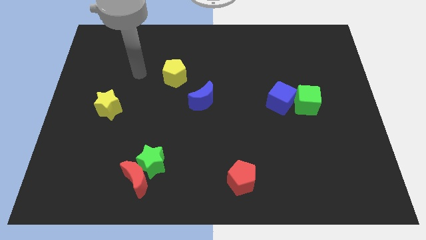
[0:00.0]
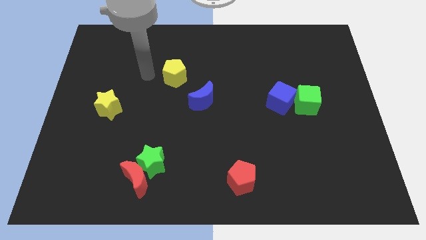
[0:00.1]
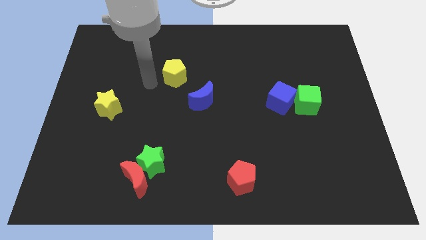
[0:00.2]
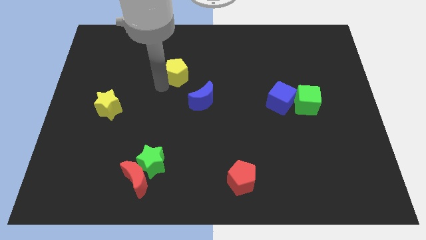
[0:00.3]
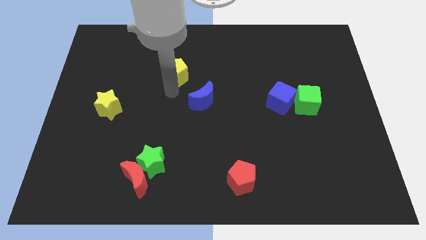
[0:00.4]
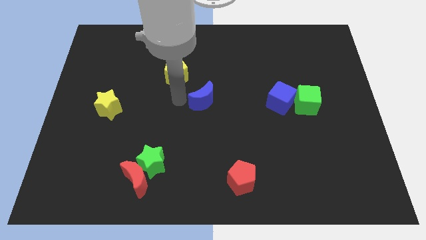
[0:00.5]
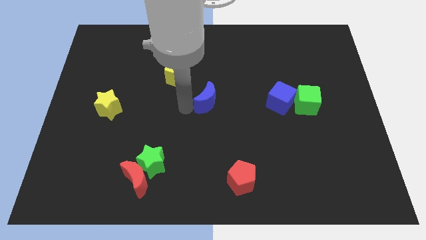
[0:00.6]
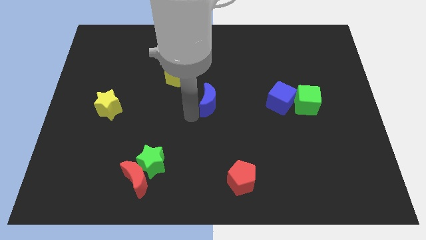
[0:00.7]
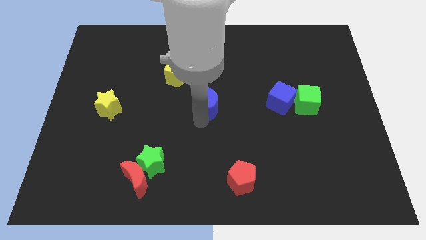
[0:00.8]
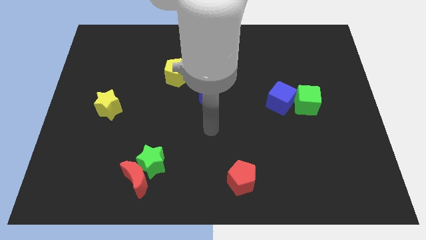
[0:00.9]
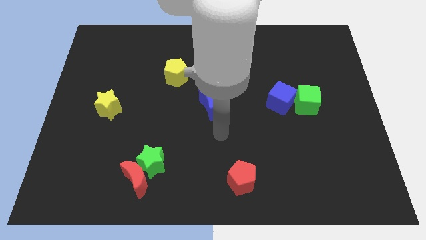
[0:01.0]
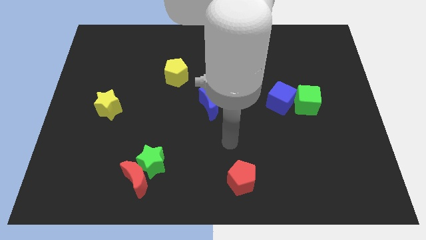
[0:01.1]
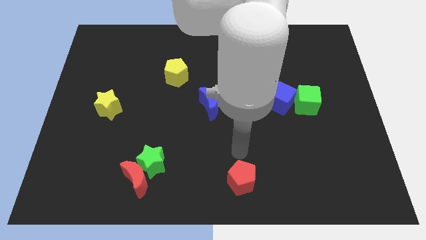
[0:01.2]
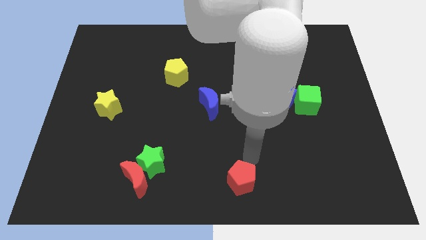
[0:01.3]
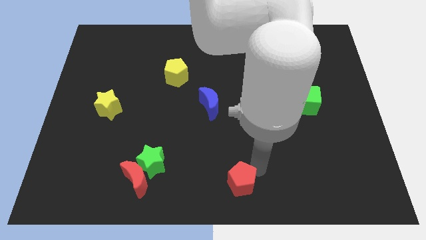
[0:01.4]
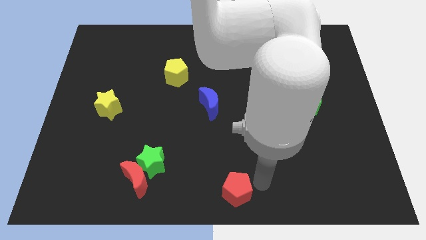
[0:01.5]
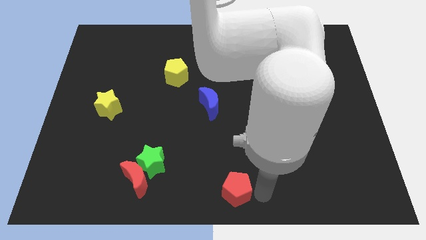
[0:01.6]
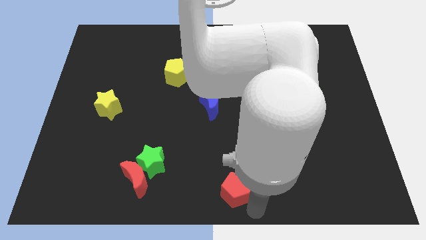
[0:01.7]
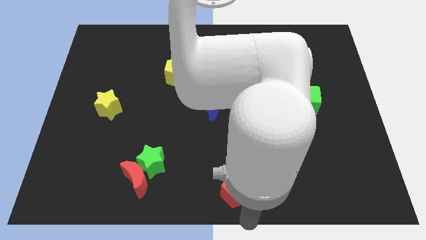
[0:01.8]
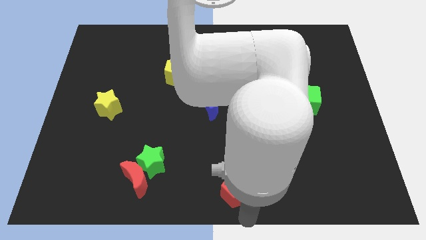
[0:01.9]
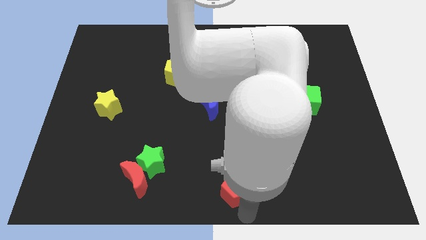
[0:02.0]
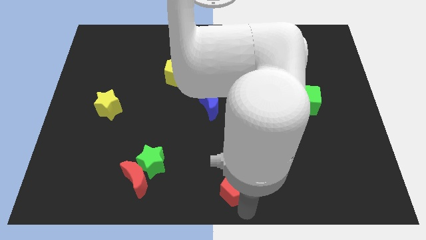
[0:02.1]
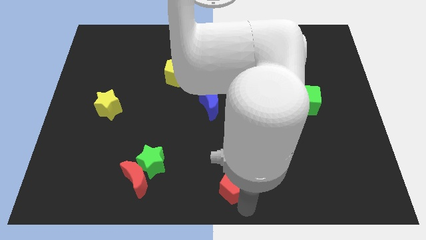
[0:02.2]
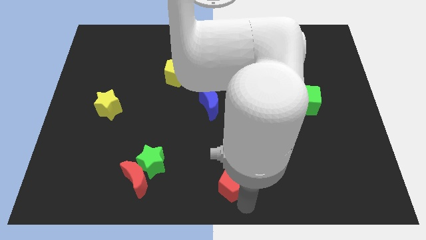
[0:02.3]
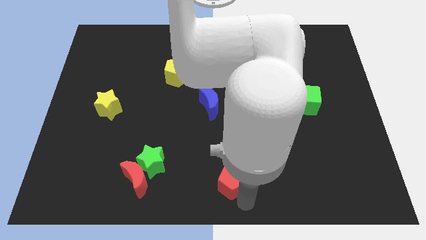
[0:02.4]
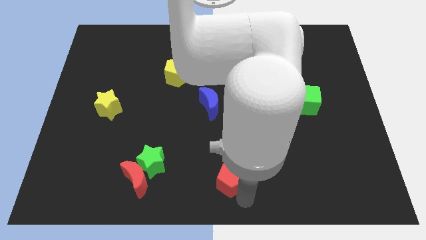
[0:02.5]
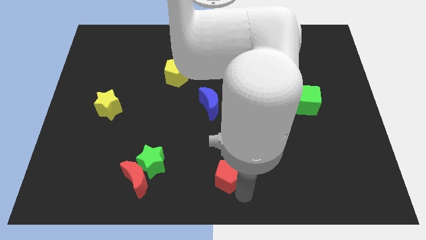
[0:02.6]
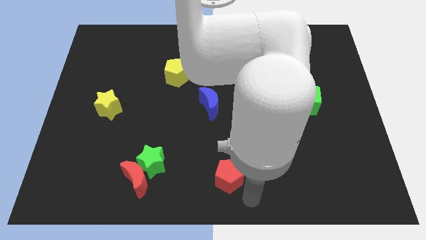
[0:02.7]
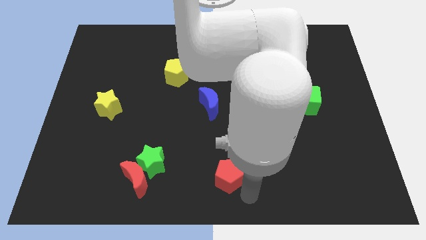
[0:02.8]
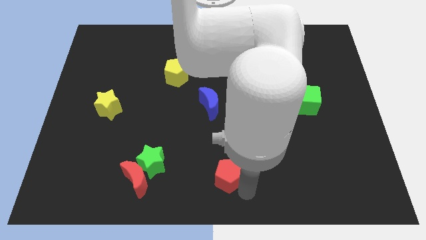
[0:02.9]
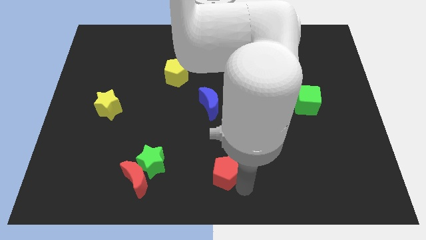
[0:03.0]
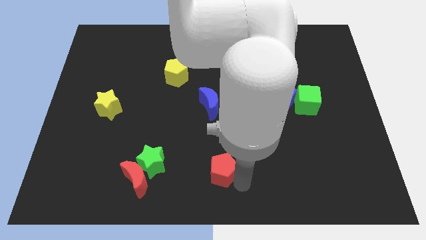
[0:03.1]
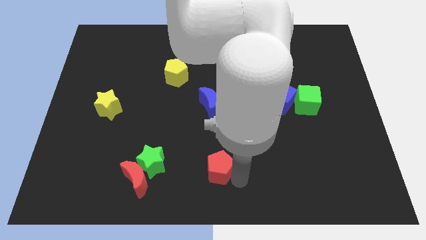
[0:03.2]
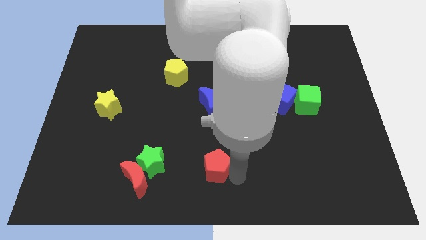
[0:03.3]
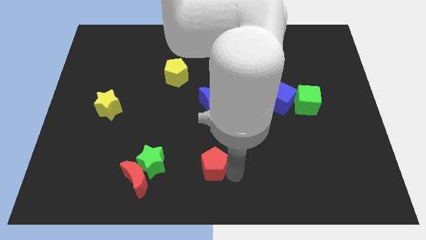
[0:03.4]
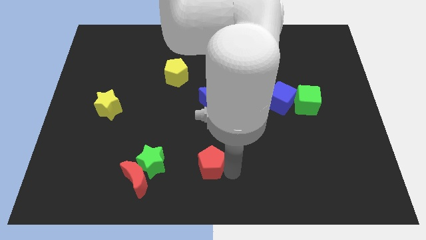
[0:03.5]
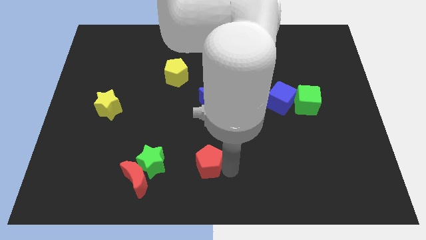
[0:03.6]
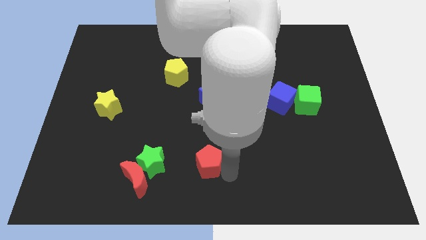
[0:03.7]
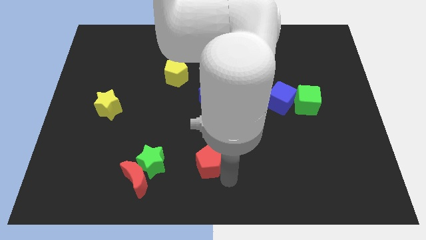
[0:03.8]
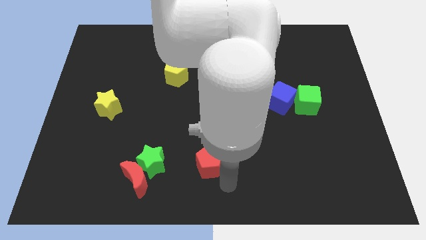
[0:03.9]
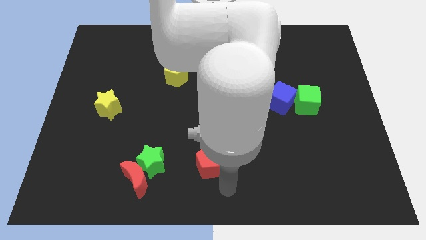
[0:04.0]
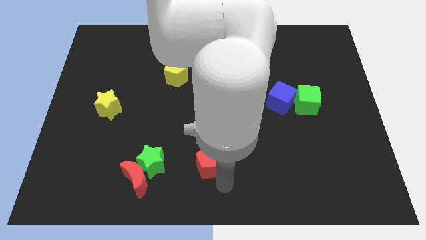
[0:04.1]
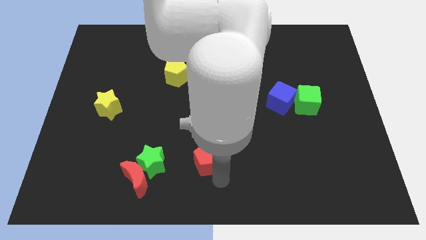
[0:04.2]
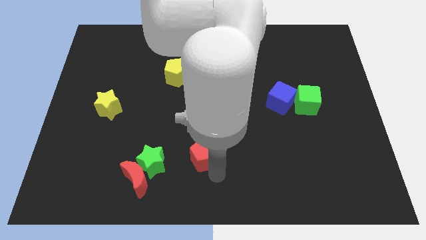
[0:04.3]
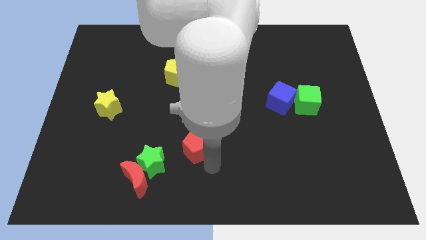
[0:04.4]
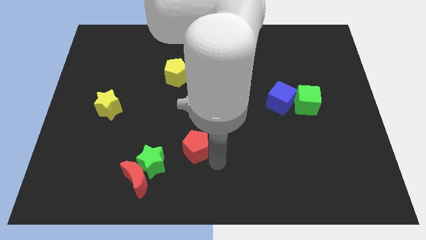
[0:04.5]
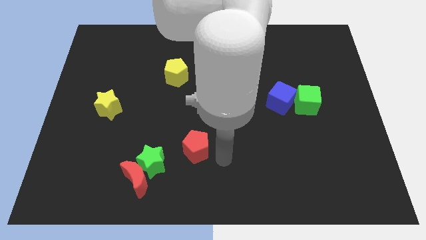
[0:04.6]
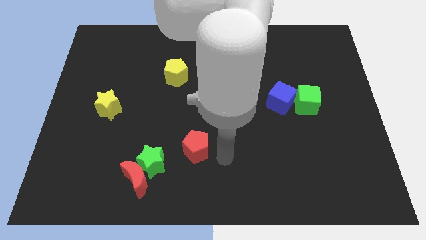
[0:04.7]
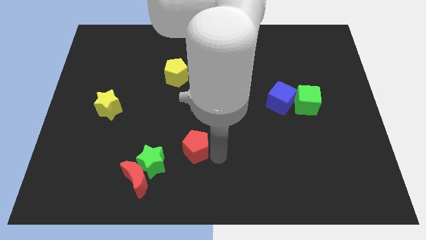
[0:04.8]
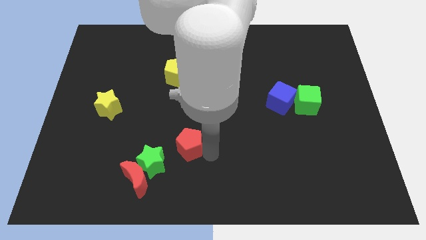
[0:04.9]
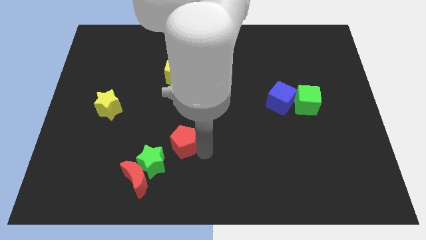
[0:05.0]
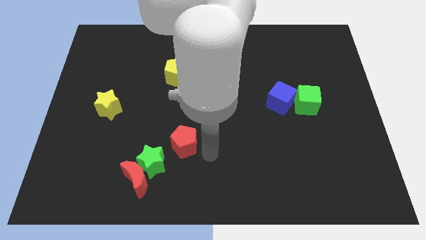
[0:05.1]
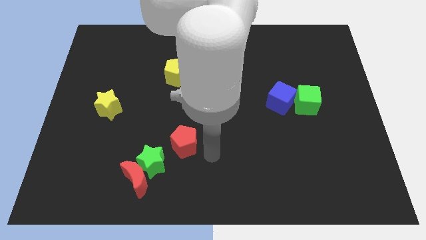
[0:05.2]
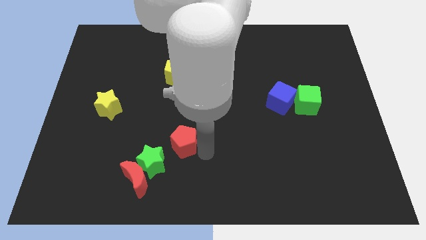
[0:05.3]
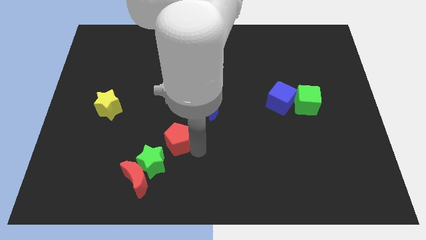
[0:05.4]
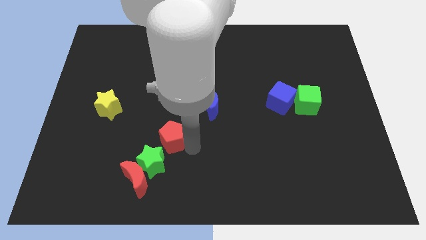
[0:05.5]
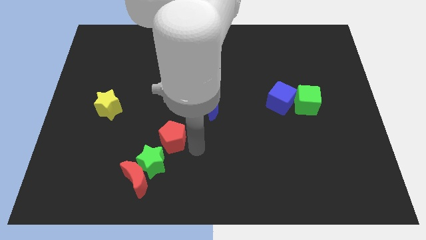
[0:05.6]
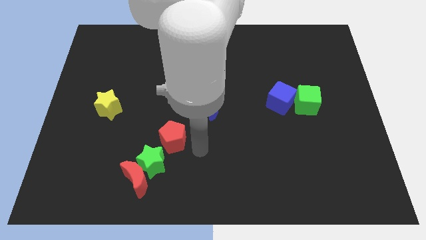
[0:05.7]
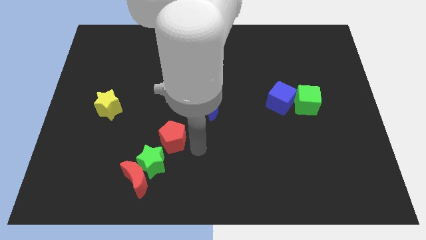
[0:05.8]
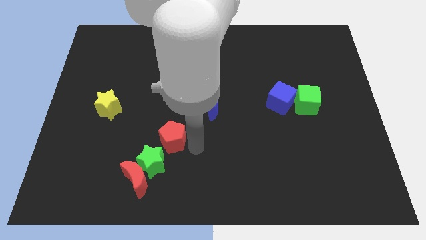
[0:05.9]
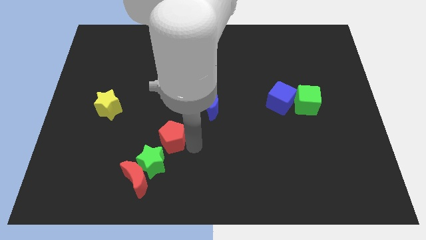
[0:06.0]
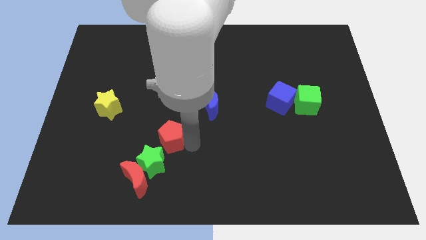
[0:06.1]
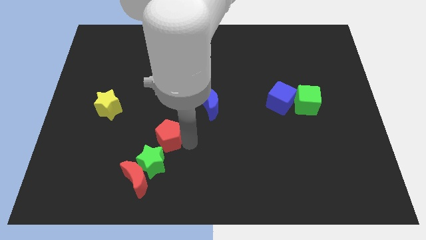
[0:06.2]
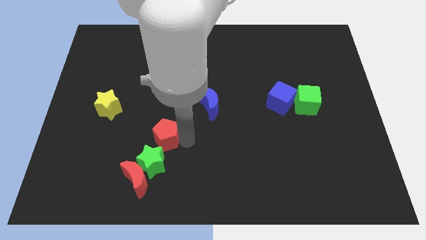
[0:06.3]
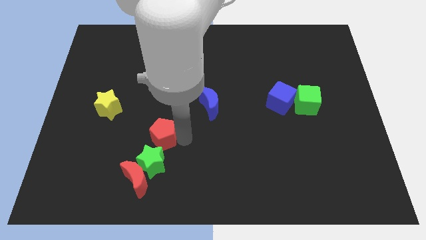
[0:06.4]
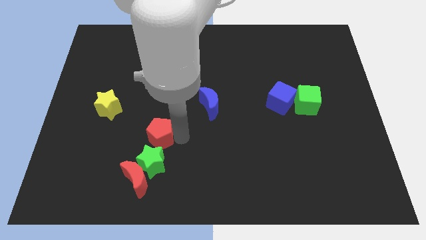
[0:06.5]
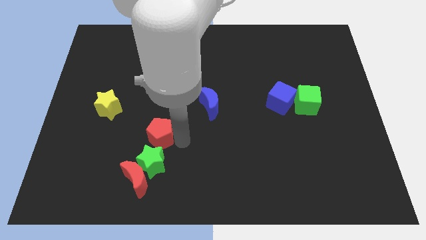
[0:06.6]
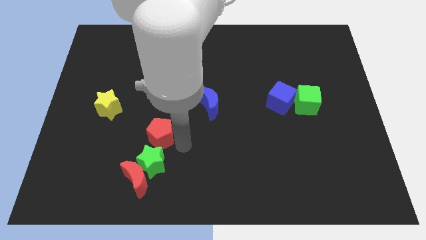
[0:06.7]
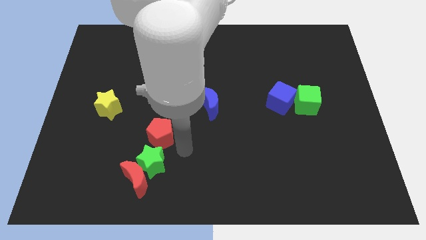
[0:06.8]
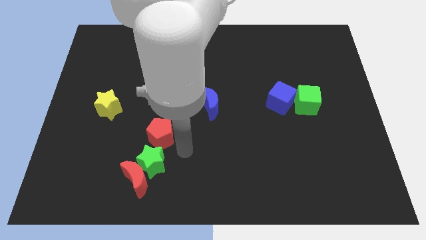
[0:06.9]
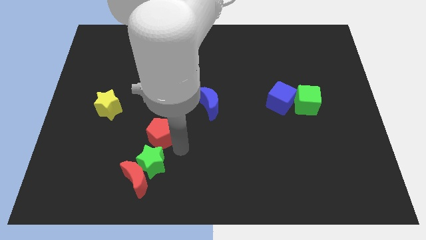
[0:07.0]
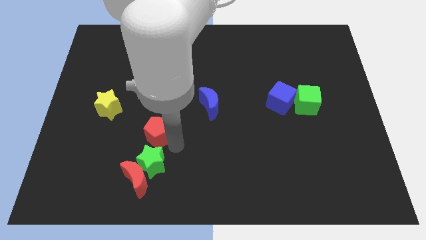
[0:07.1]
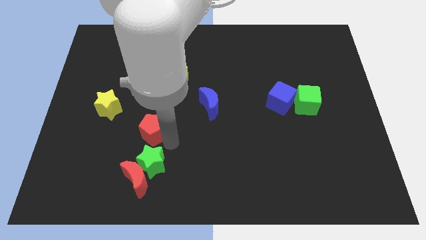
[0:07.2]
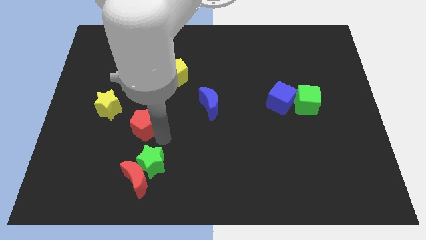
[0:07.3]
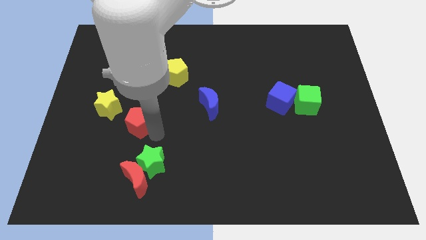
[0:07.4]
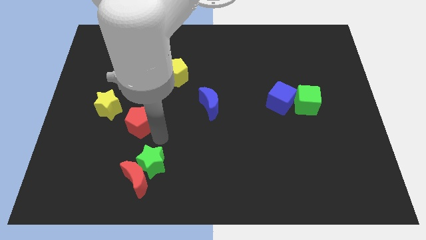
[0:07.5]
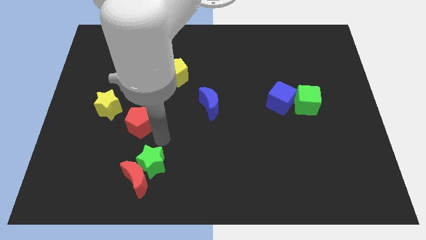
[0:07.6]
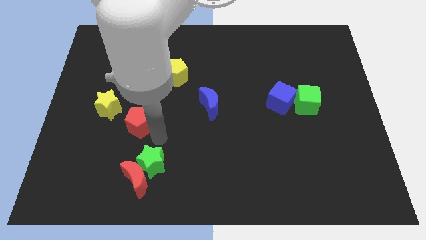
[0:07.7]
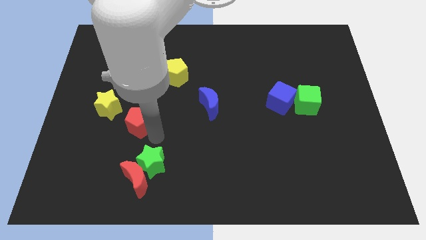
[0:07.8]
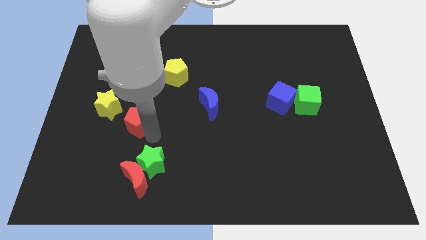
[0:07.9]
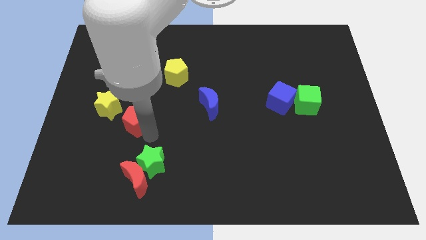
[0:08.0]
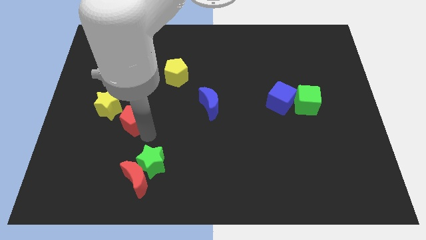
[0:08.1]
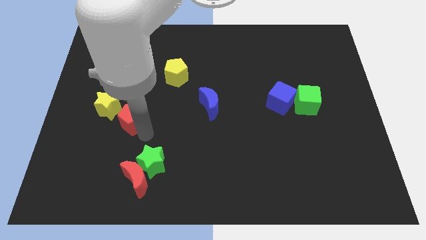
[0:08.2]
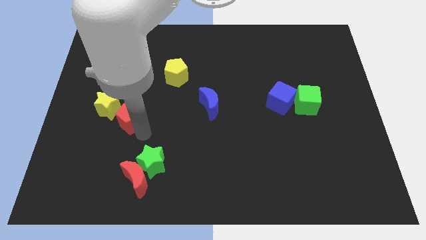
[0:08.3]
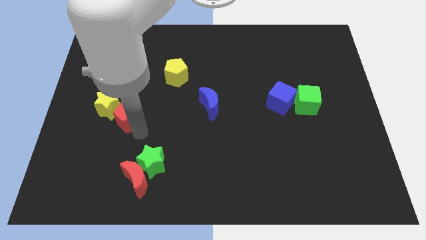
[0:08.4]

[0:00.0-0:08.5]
push the red pentagon close to the yellow star
